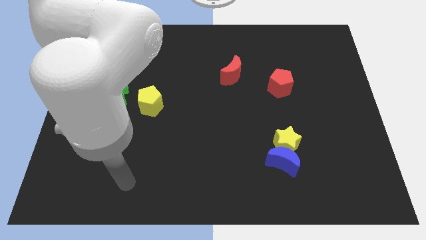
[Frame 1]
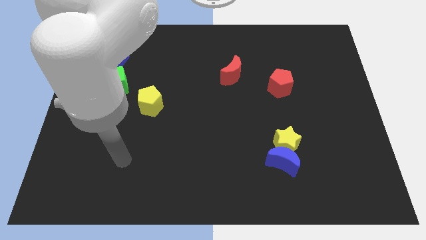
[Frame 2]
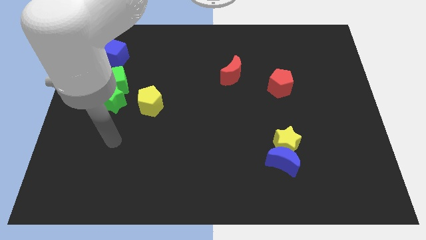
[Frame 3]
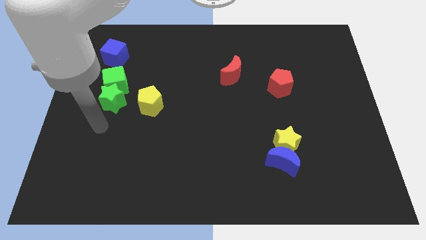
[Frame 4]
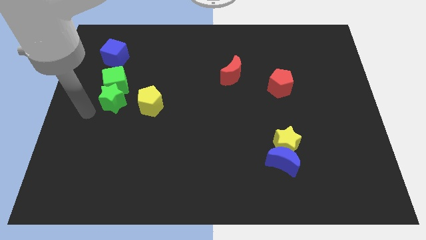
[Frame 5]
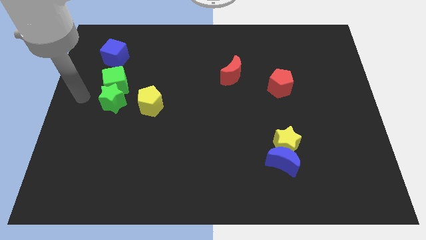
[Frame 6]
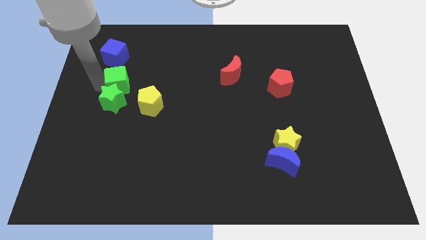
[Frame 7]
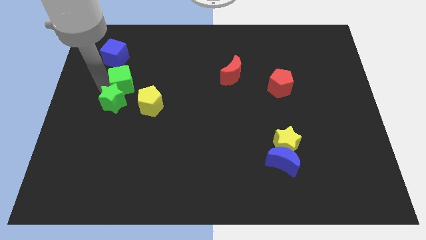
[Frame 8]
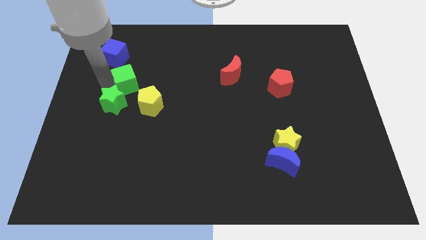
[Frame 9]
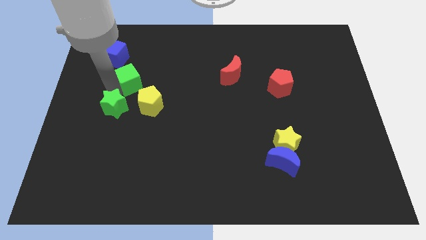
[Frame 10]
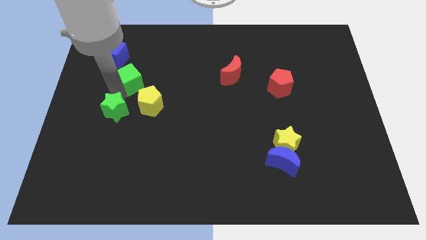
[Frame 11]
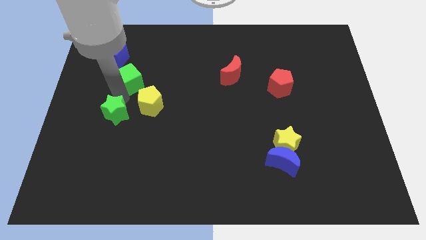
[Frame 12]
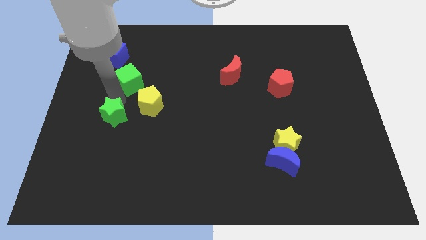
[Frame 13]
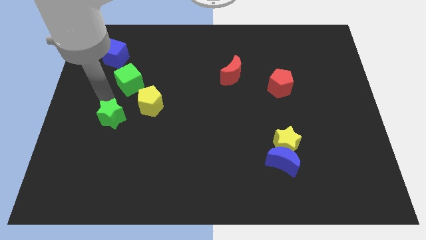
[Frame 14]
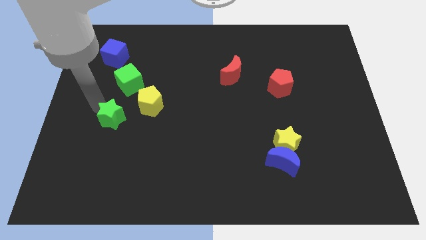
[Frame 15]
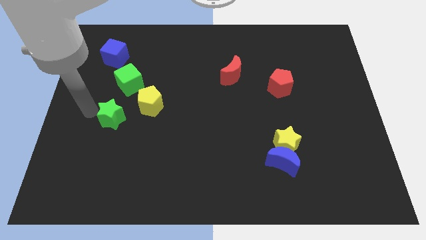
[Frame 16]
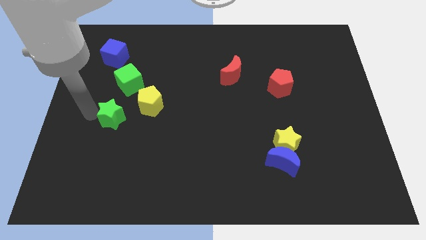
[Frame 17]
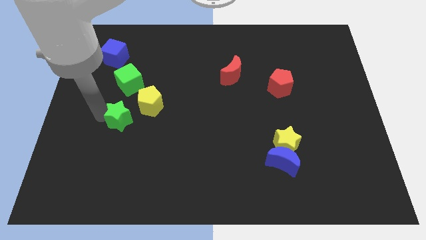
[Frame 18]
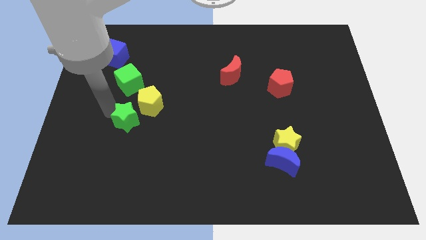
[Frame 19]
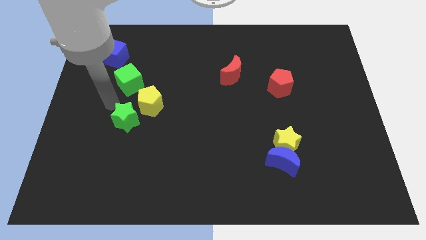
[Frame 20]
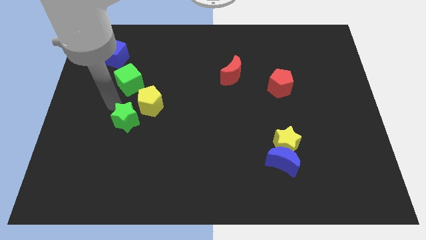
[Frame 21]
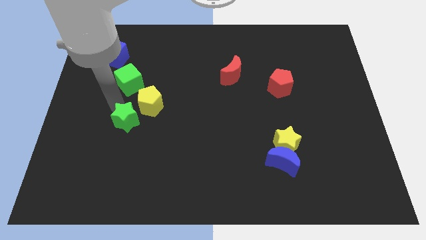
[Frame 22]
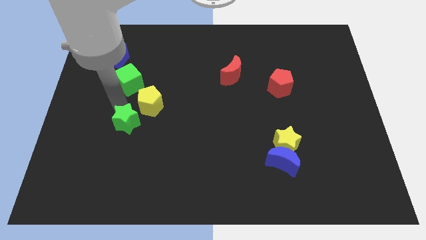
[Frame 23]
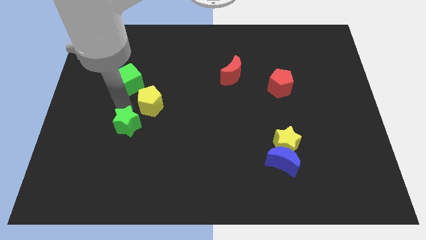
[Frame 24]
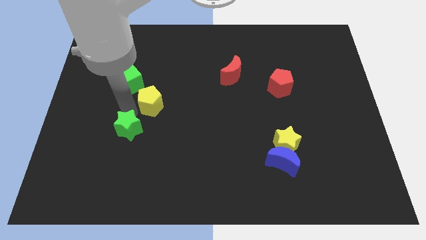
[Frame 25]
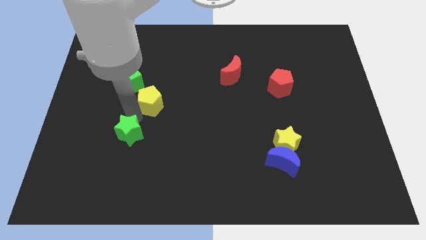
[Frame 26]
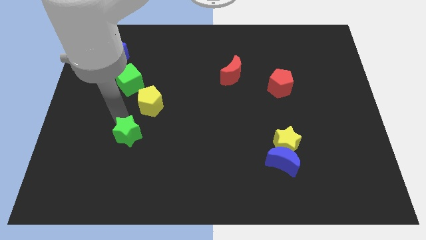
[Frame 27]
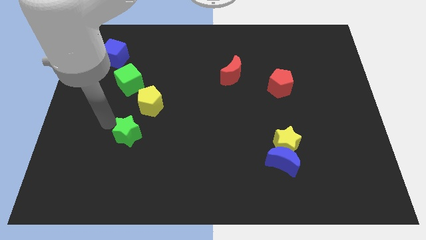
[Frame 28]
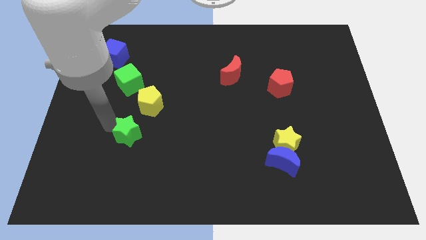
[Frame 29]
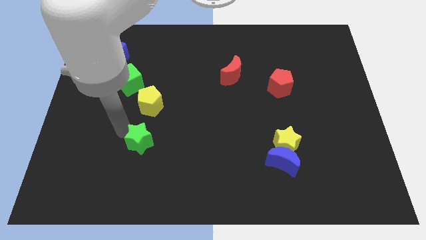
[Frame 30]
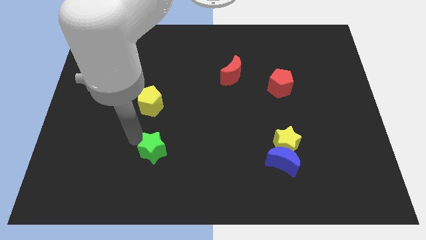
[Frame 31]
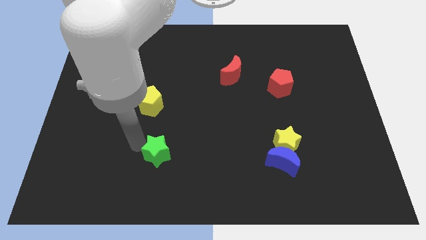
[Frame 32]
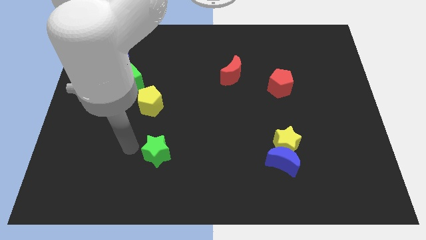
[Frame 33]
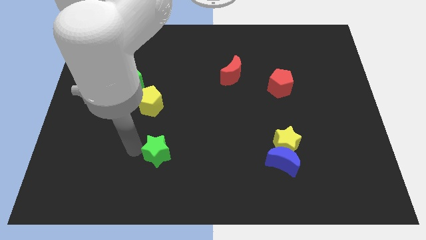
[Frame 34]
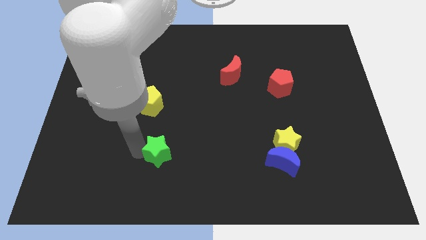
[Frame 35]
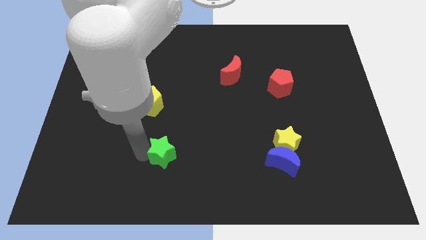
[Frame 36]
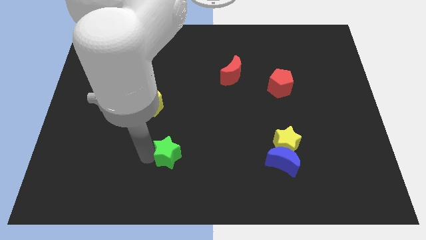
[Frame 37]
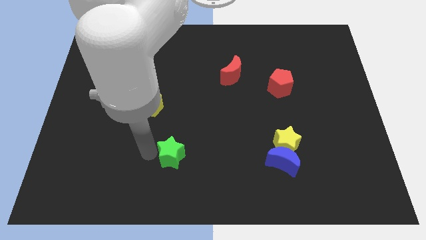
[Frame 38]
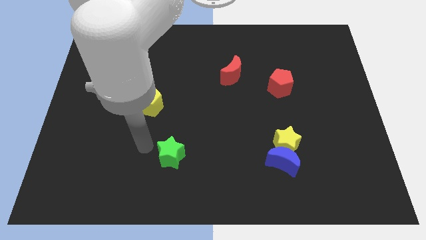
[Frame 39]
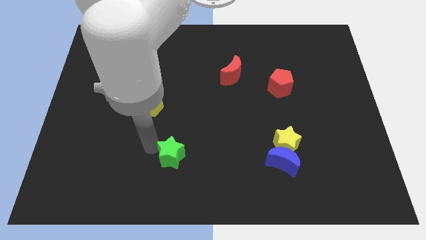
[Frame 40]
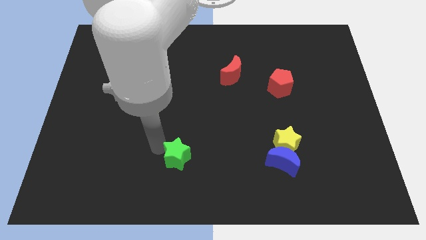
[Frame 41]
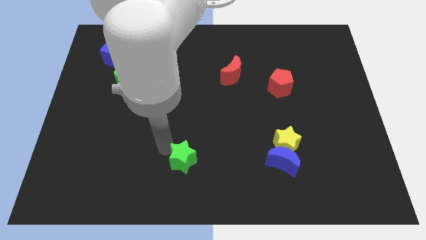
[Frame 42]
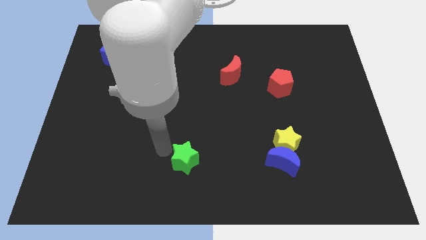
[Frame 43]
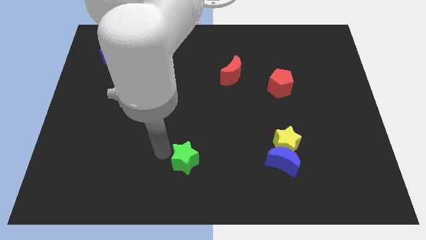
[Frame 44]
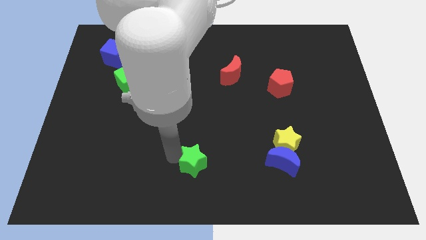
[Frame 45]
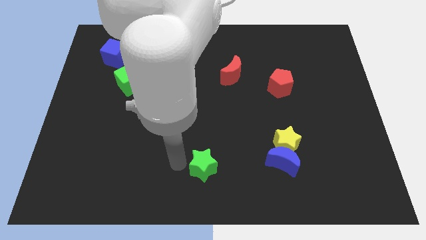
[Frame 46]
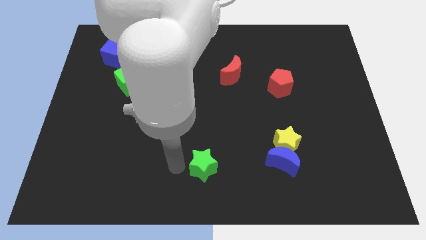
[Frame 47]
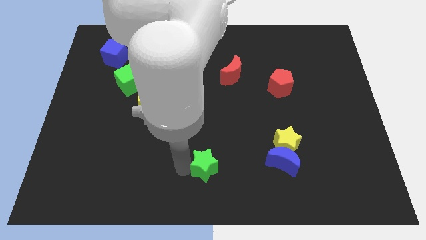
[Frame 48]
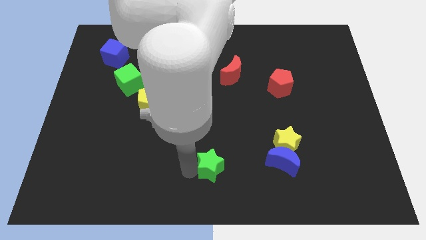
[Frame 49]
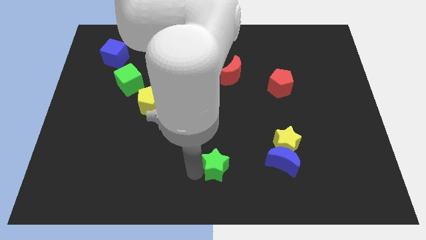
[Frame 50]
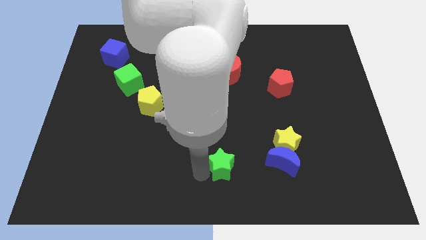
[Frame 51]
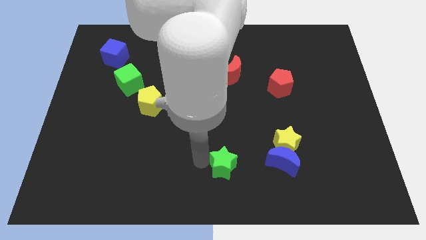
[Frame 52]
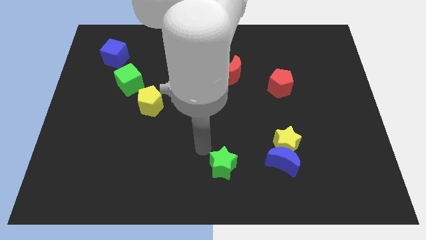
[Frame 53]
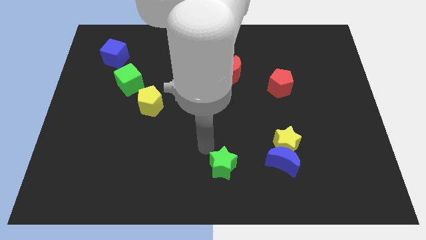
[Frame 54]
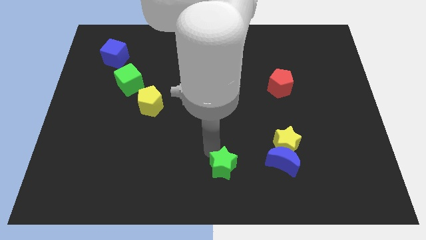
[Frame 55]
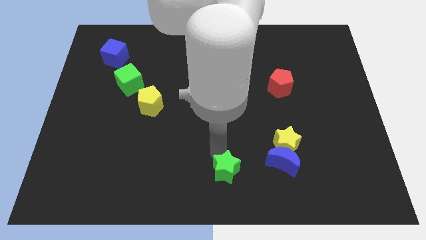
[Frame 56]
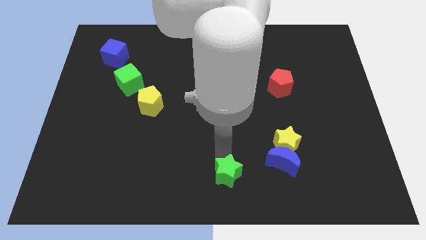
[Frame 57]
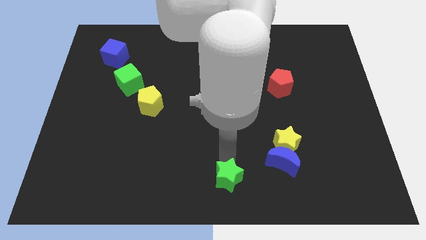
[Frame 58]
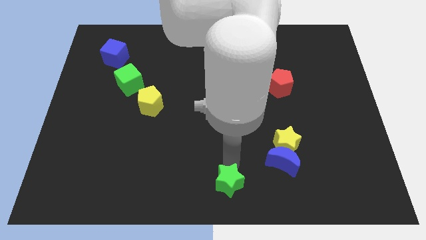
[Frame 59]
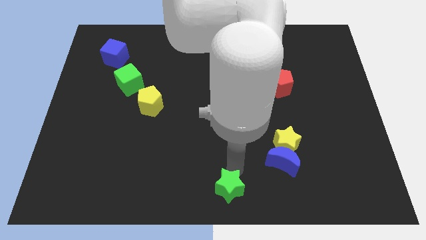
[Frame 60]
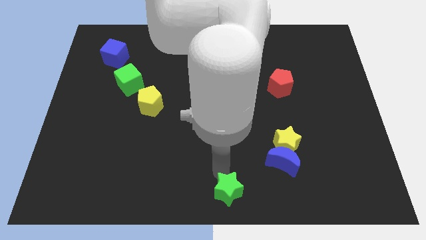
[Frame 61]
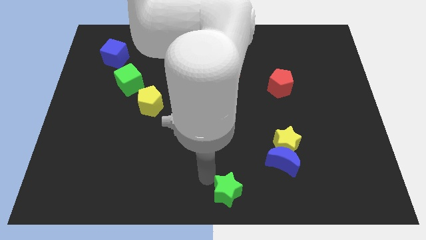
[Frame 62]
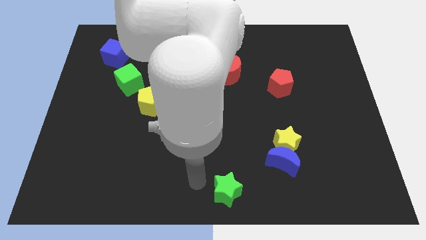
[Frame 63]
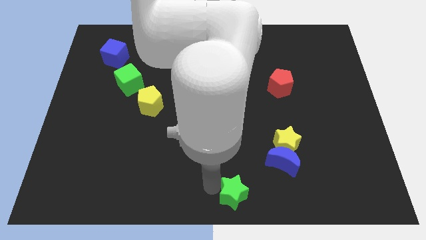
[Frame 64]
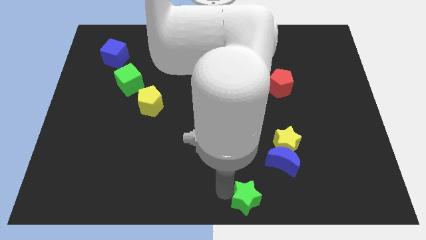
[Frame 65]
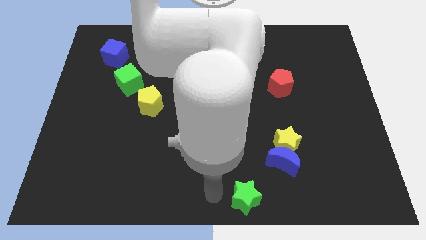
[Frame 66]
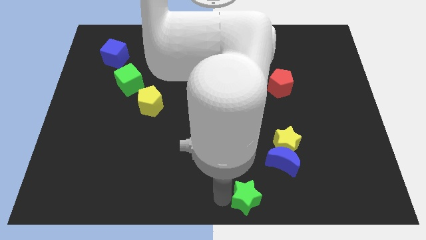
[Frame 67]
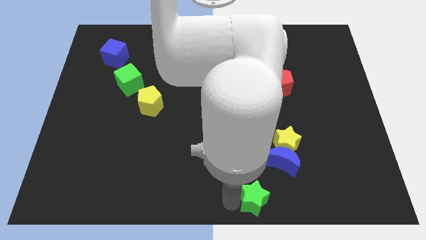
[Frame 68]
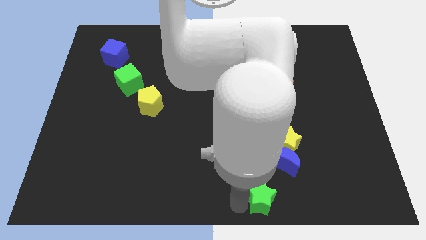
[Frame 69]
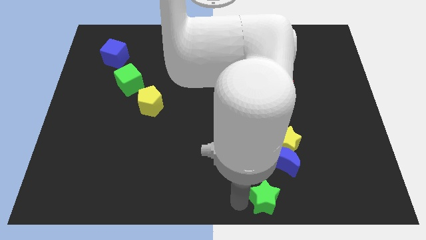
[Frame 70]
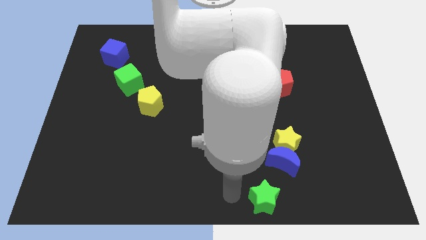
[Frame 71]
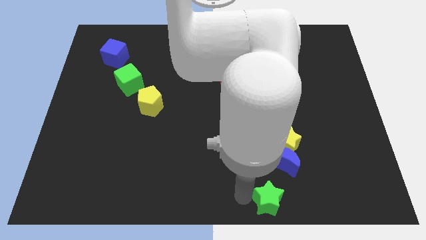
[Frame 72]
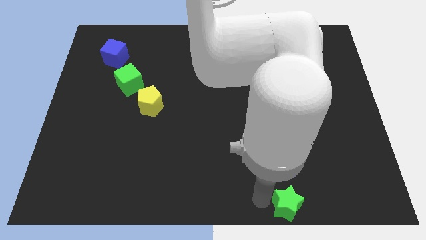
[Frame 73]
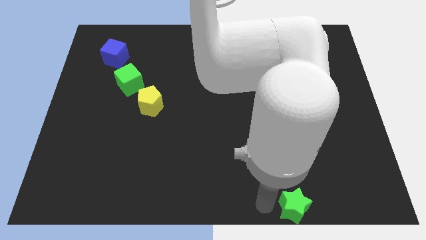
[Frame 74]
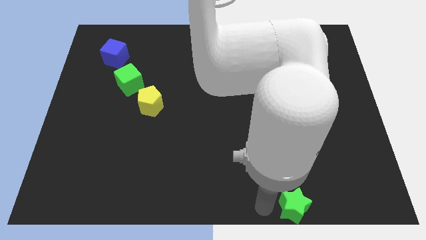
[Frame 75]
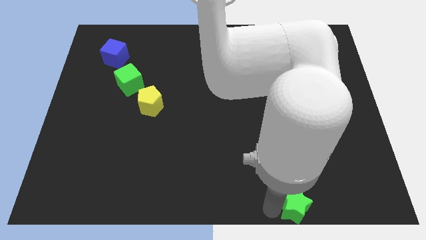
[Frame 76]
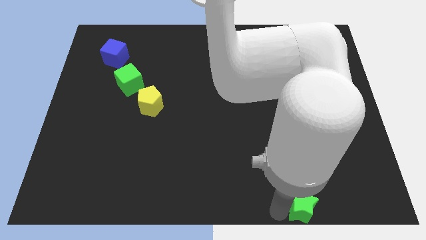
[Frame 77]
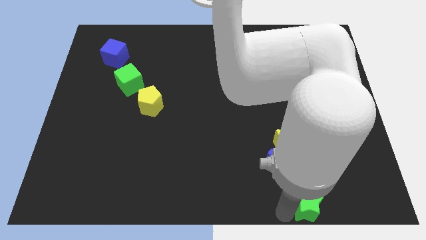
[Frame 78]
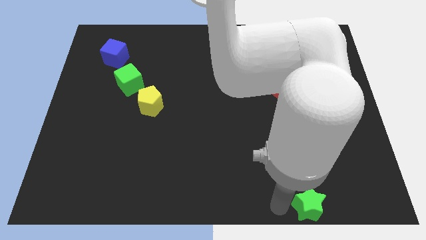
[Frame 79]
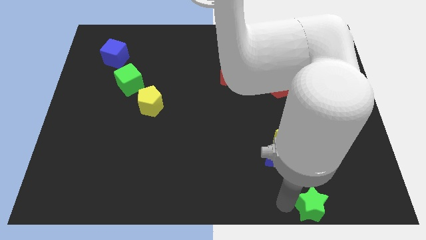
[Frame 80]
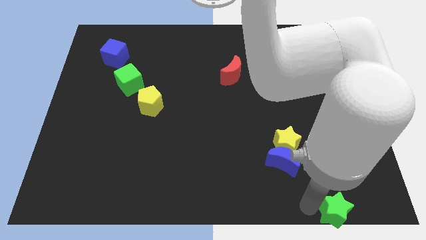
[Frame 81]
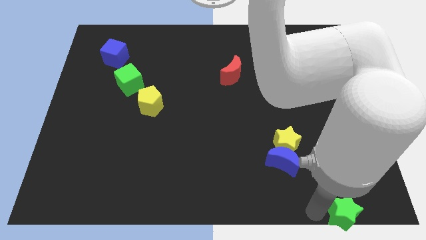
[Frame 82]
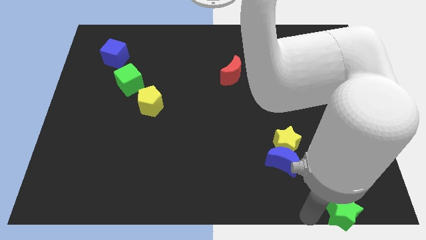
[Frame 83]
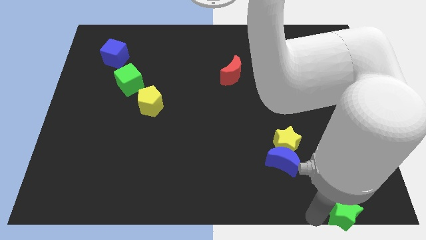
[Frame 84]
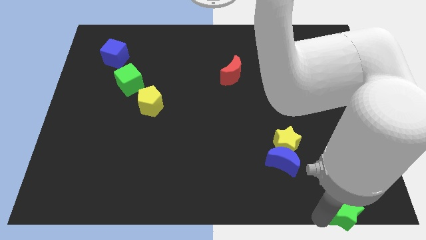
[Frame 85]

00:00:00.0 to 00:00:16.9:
put the green star to the bottom right corner
